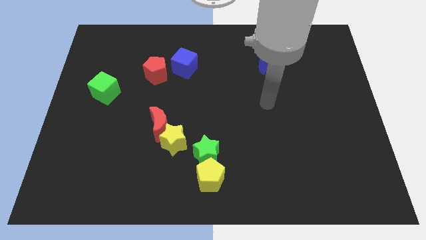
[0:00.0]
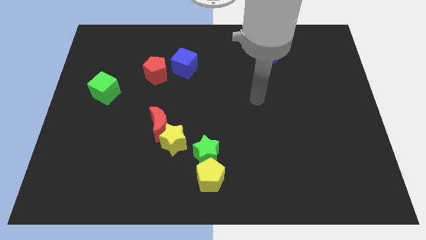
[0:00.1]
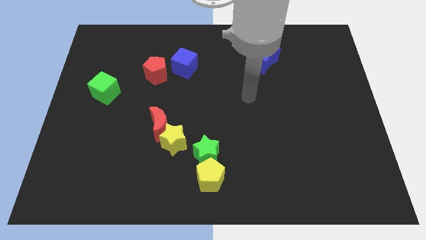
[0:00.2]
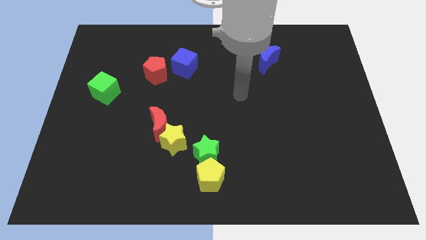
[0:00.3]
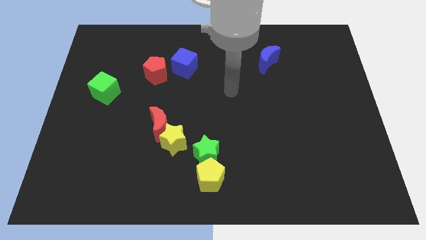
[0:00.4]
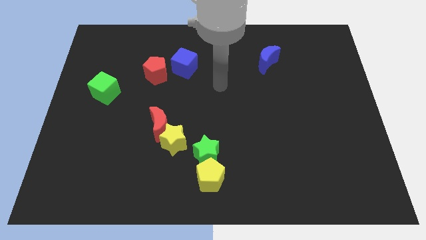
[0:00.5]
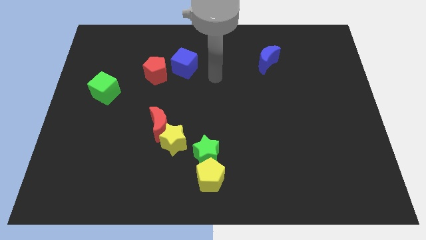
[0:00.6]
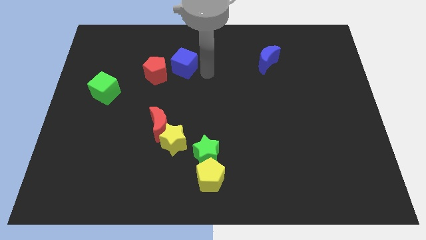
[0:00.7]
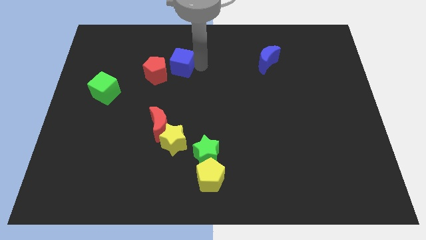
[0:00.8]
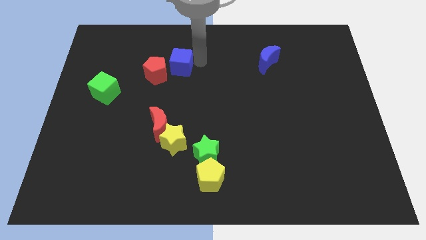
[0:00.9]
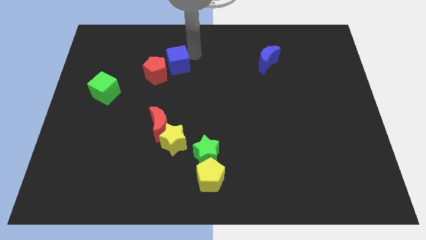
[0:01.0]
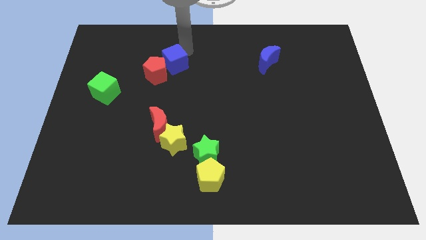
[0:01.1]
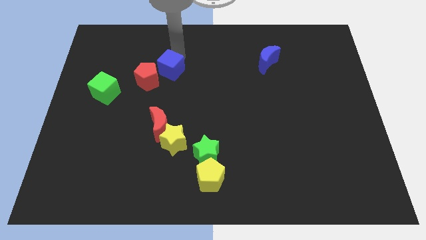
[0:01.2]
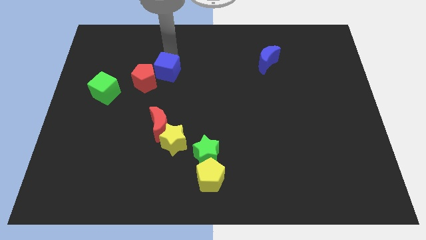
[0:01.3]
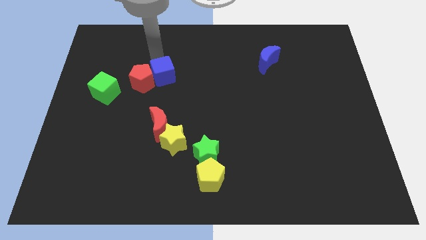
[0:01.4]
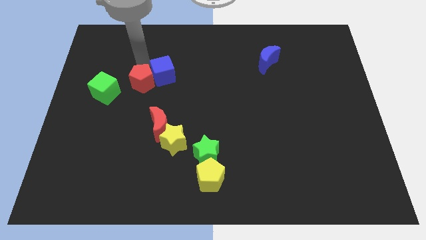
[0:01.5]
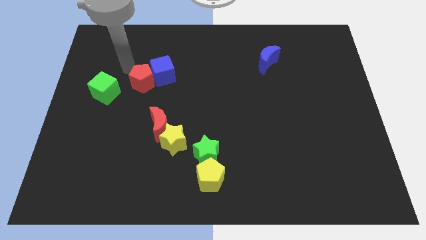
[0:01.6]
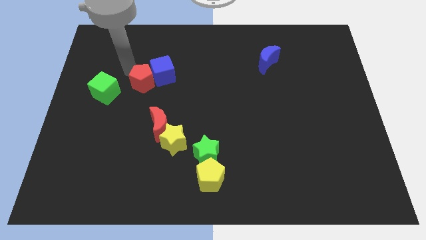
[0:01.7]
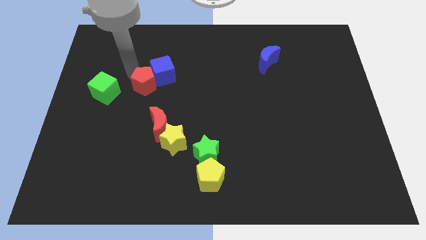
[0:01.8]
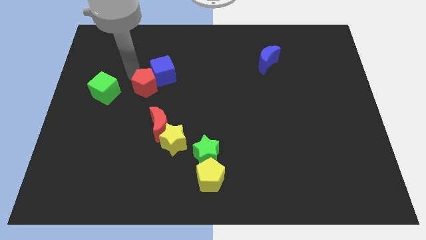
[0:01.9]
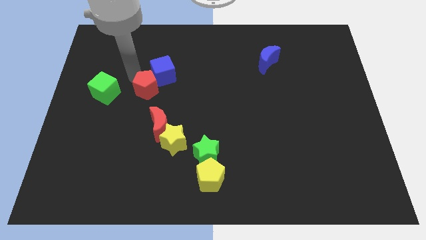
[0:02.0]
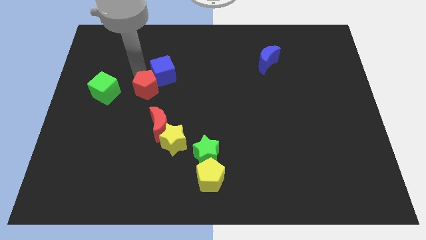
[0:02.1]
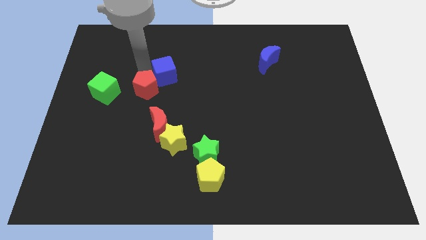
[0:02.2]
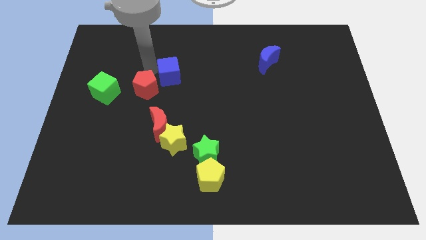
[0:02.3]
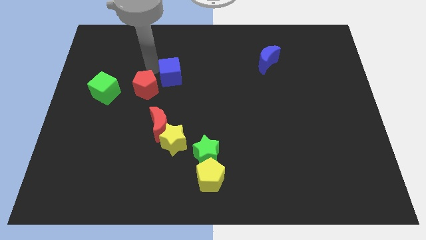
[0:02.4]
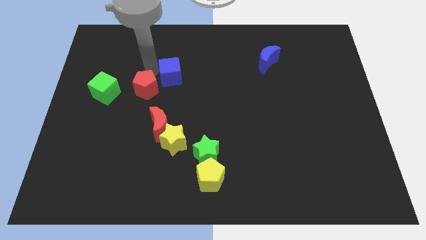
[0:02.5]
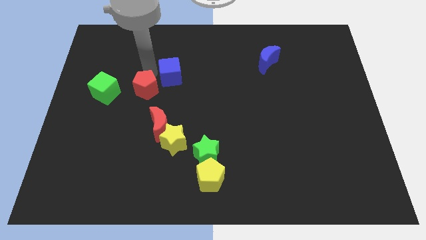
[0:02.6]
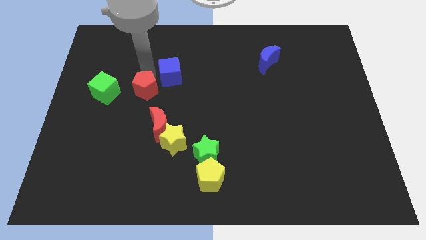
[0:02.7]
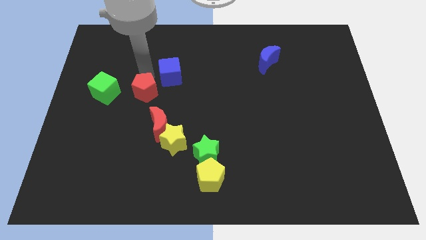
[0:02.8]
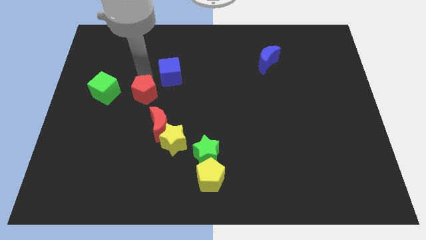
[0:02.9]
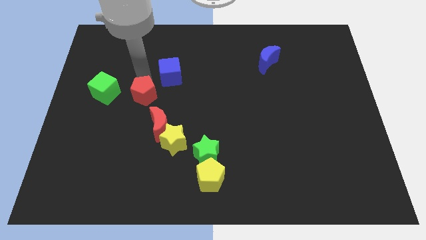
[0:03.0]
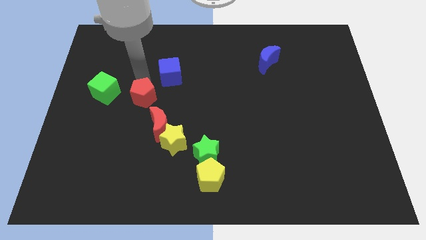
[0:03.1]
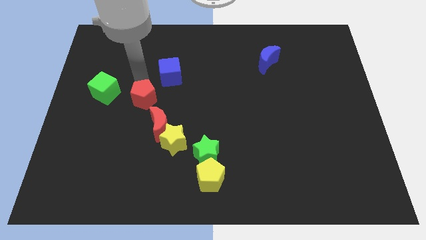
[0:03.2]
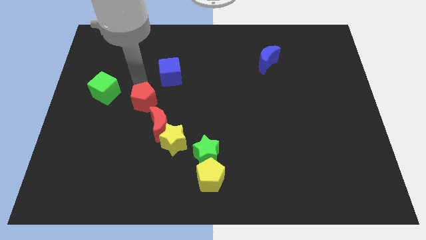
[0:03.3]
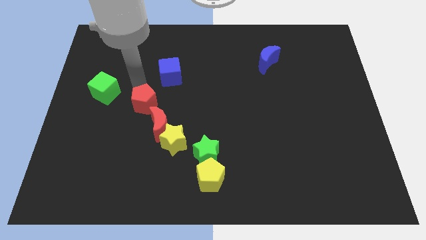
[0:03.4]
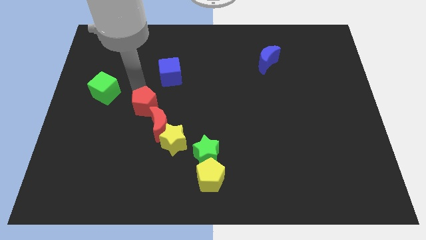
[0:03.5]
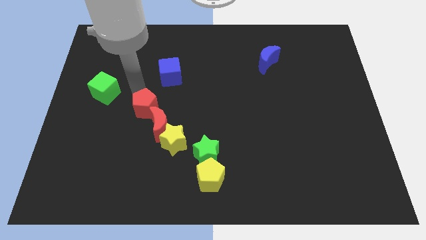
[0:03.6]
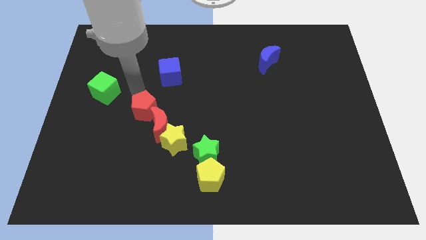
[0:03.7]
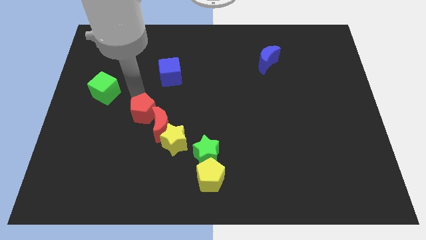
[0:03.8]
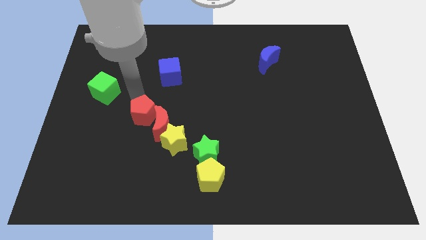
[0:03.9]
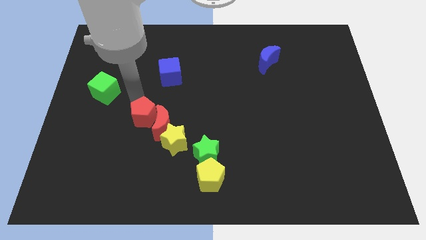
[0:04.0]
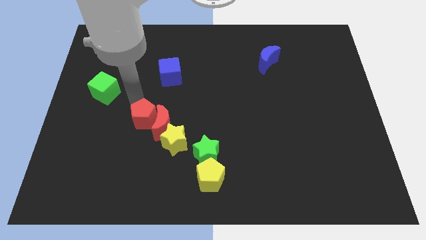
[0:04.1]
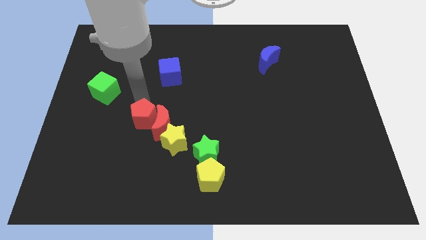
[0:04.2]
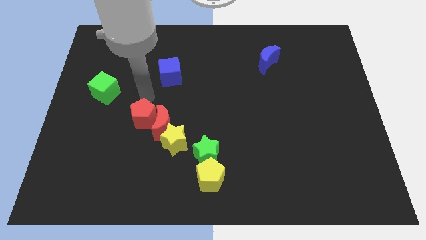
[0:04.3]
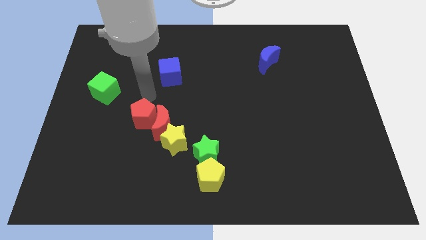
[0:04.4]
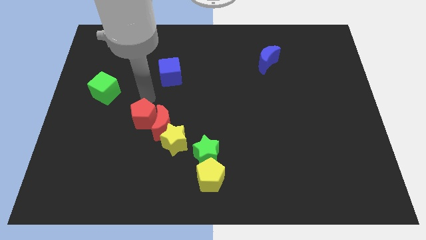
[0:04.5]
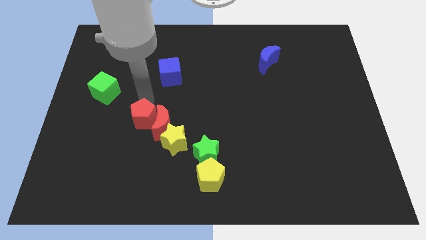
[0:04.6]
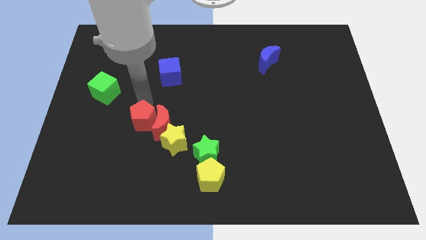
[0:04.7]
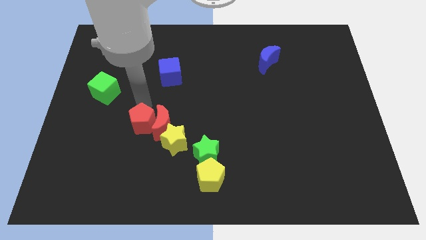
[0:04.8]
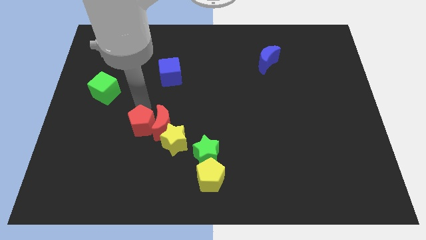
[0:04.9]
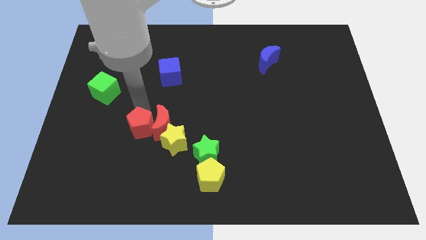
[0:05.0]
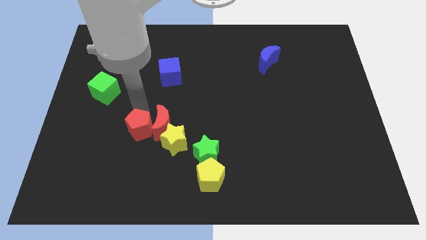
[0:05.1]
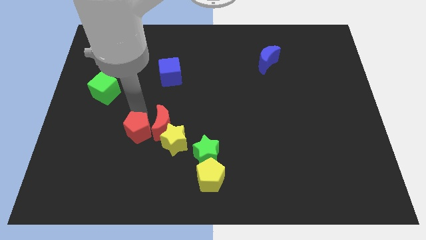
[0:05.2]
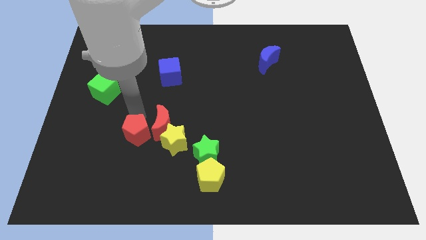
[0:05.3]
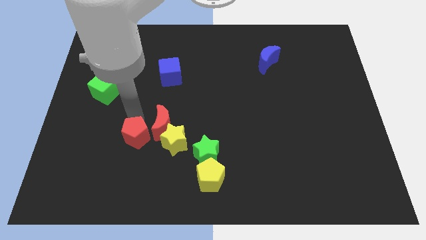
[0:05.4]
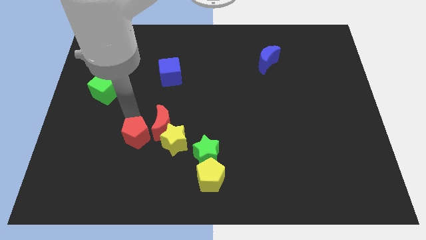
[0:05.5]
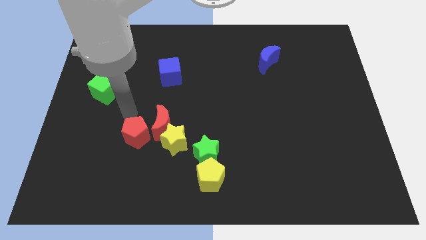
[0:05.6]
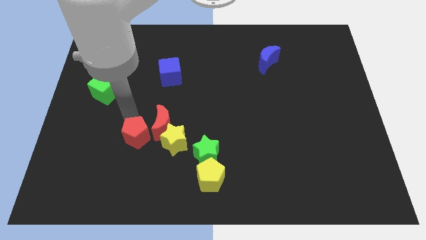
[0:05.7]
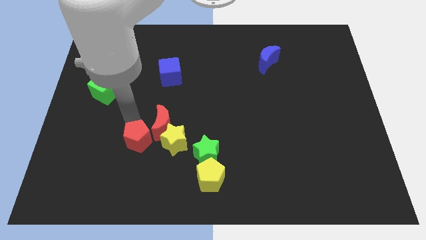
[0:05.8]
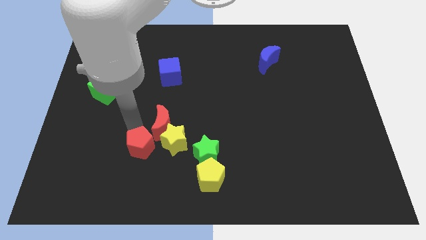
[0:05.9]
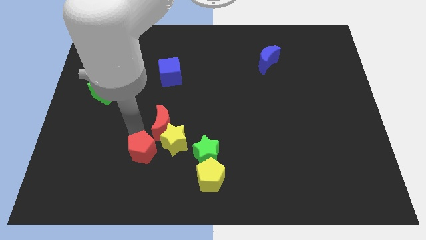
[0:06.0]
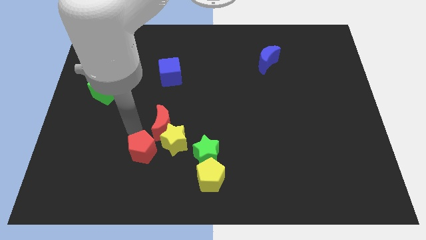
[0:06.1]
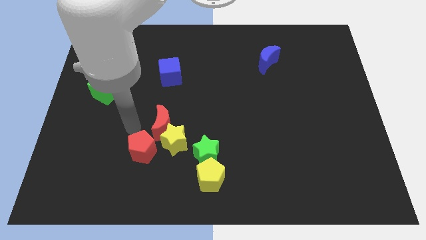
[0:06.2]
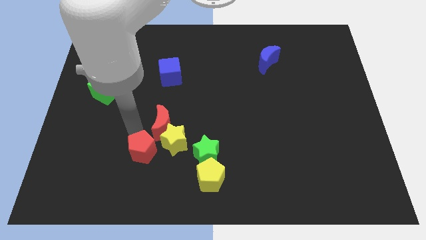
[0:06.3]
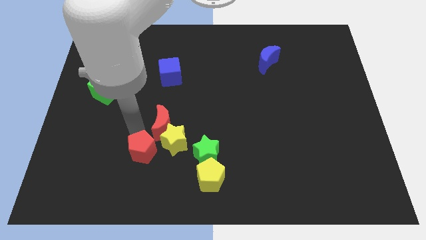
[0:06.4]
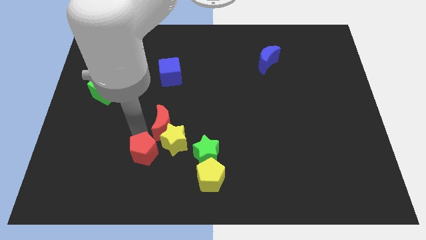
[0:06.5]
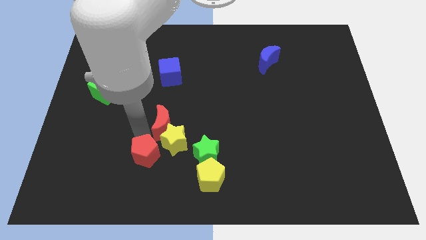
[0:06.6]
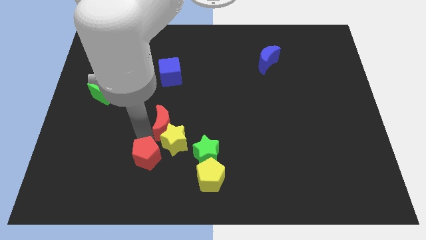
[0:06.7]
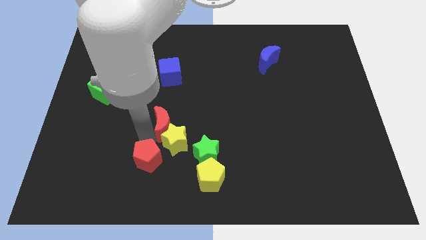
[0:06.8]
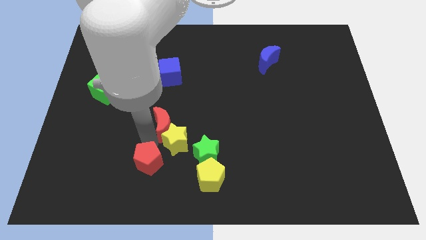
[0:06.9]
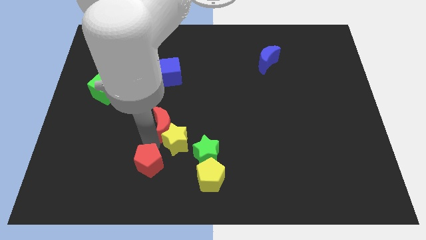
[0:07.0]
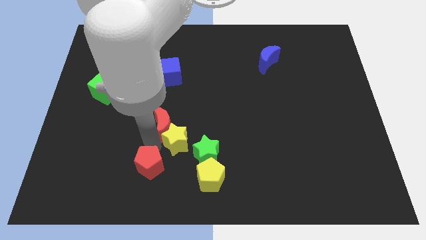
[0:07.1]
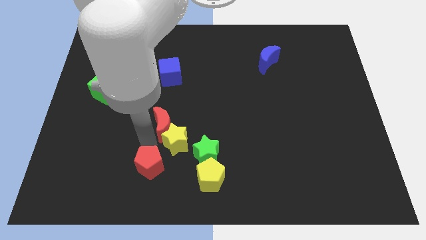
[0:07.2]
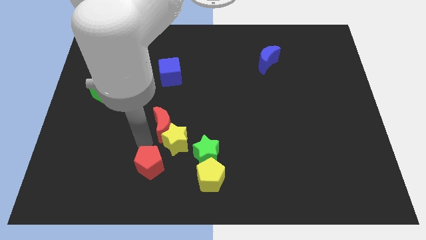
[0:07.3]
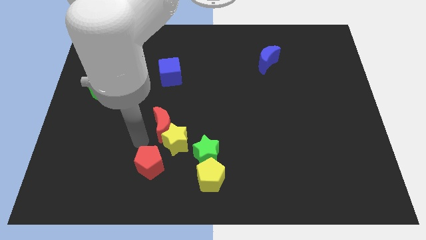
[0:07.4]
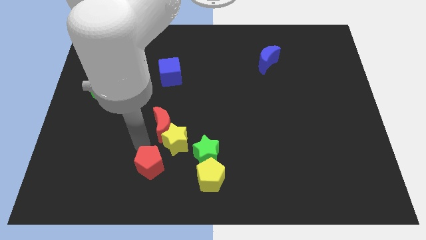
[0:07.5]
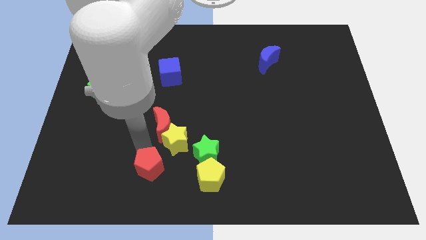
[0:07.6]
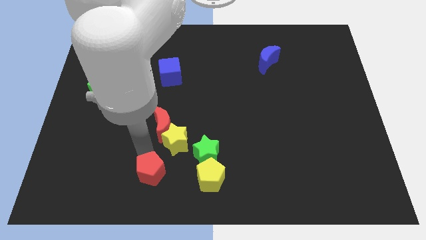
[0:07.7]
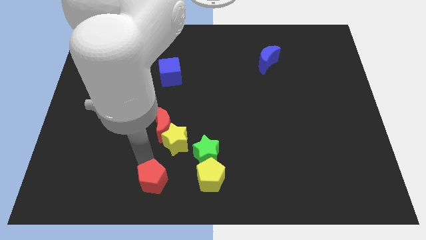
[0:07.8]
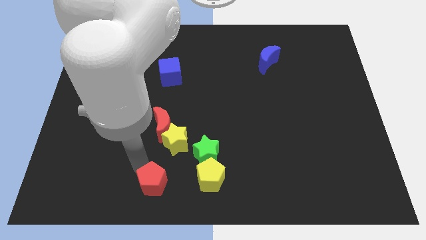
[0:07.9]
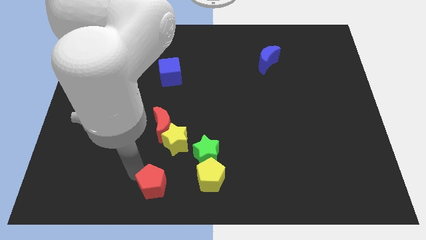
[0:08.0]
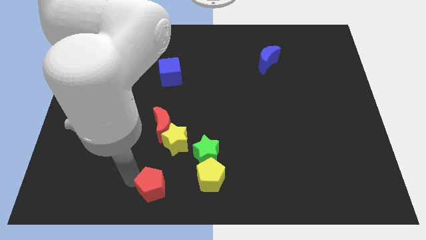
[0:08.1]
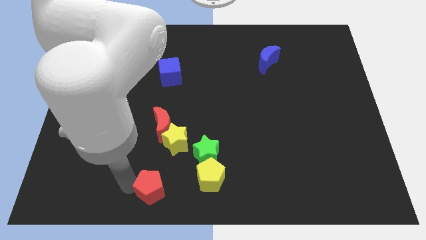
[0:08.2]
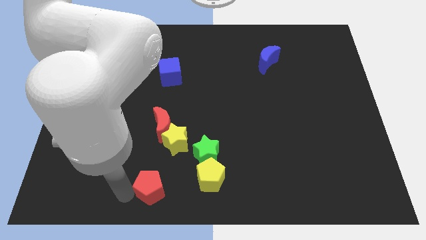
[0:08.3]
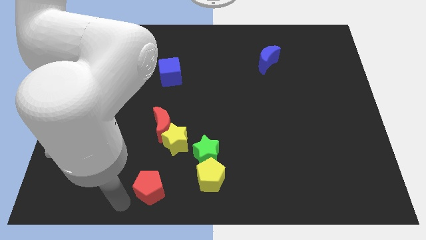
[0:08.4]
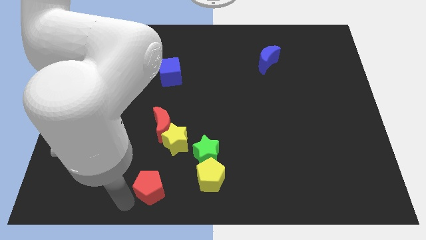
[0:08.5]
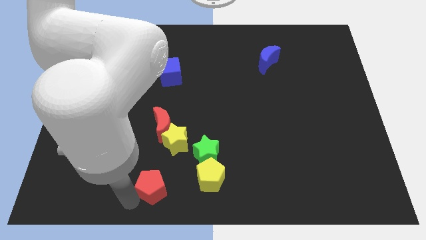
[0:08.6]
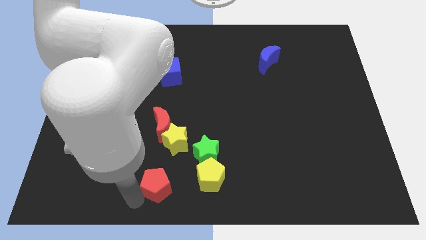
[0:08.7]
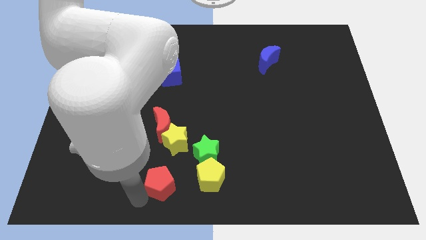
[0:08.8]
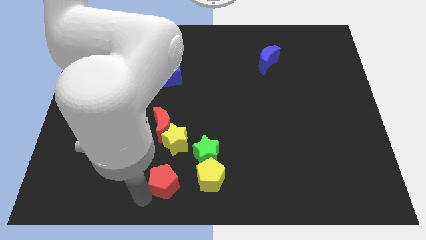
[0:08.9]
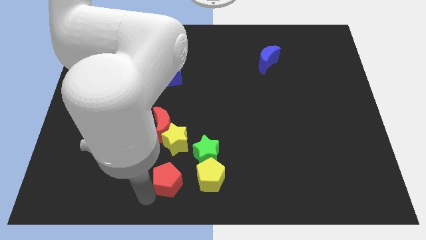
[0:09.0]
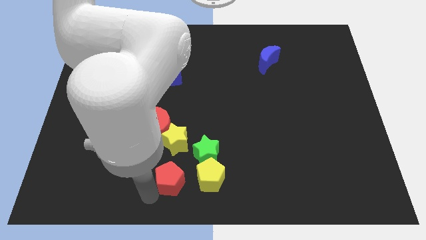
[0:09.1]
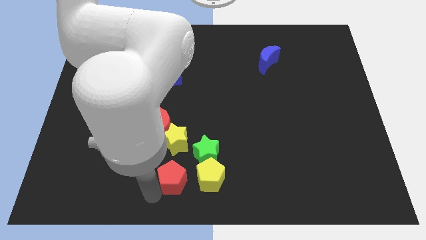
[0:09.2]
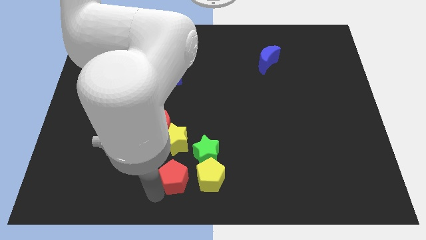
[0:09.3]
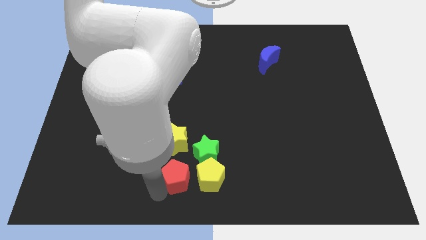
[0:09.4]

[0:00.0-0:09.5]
move the red pentagon to the top left side of the yellow pentagon
